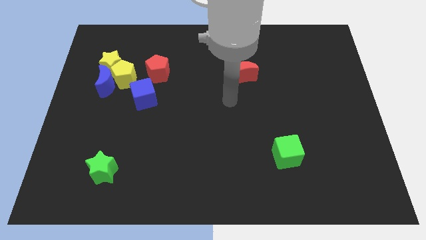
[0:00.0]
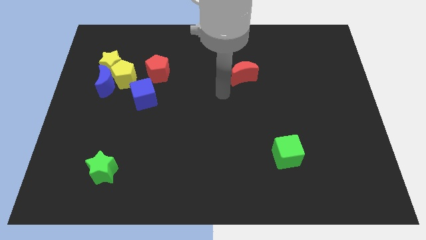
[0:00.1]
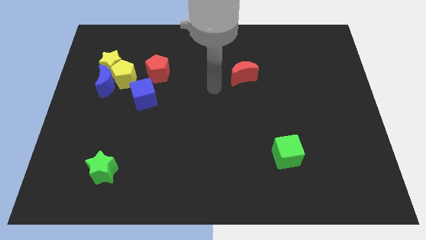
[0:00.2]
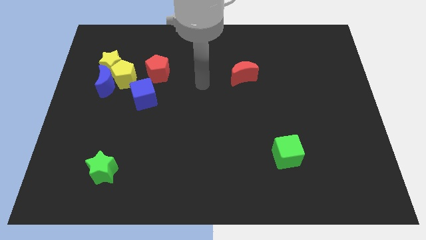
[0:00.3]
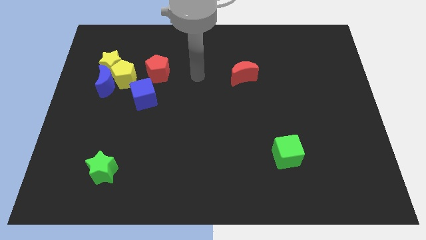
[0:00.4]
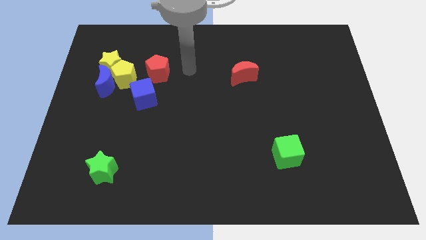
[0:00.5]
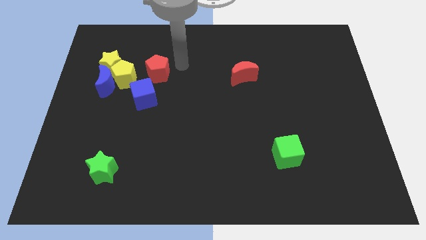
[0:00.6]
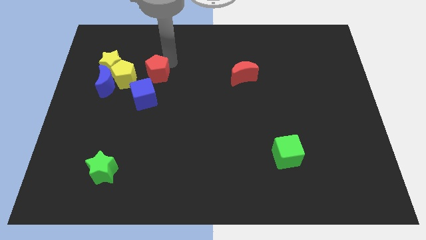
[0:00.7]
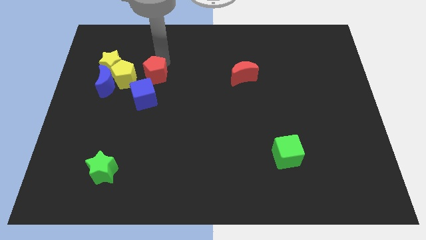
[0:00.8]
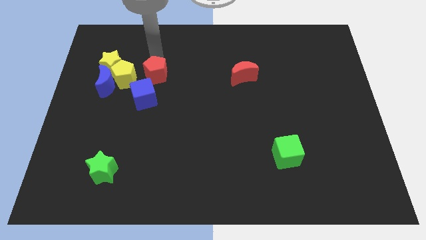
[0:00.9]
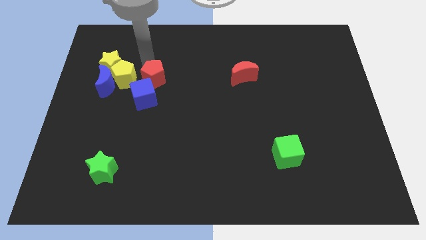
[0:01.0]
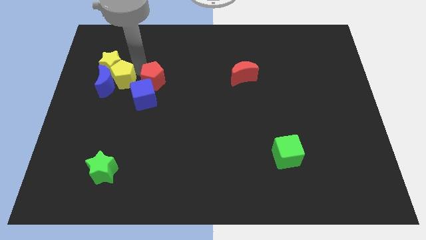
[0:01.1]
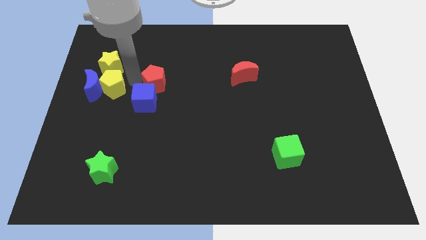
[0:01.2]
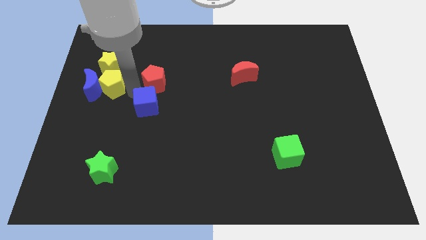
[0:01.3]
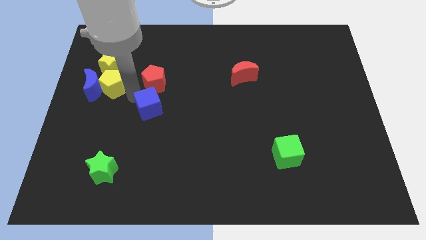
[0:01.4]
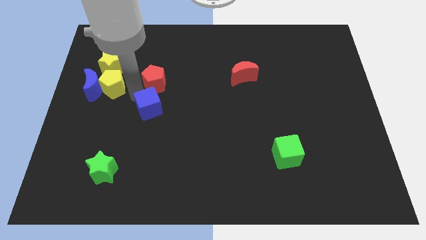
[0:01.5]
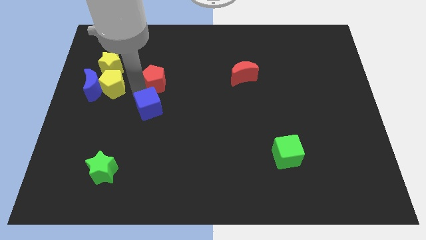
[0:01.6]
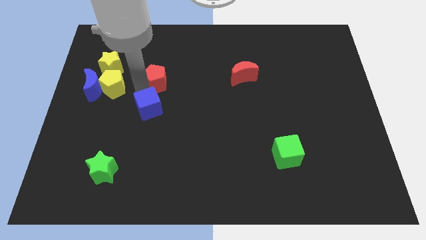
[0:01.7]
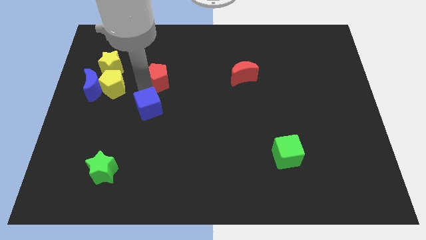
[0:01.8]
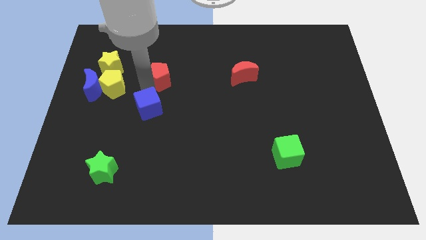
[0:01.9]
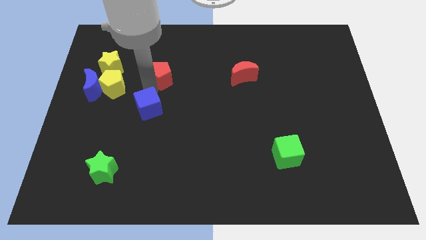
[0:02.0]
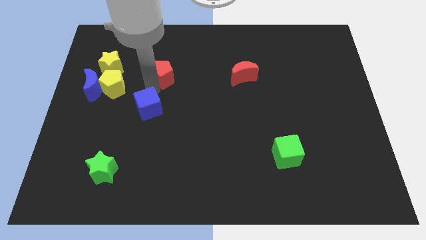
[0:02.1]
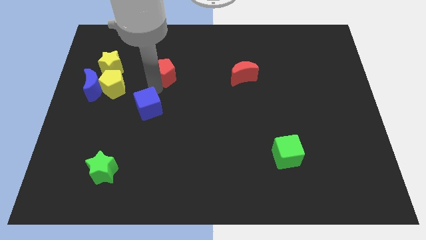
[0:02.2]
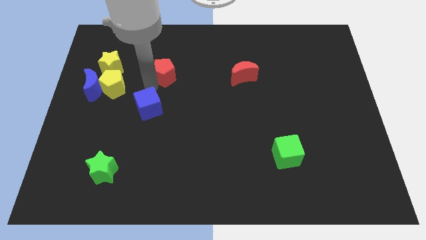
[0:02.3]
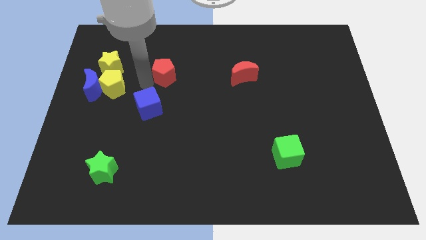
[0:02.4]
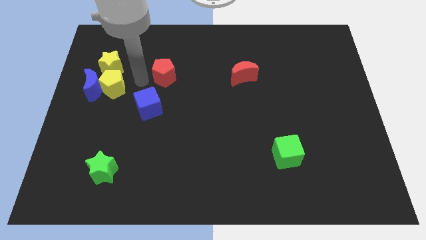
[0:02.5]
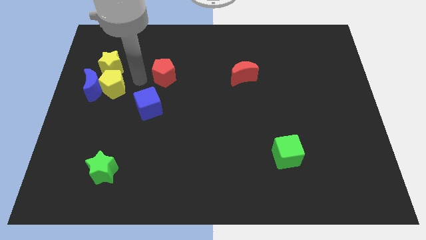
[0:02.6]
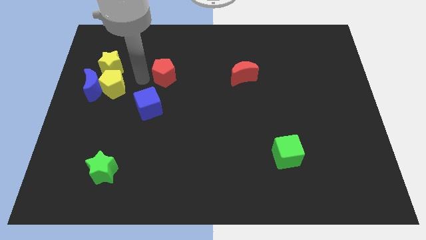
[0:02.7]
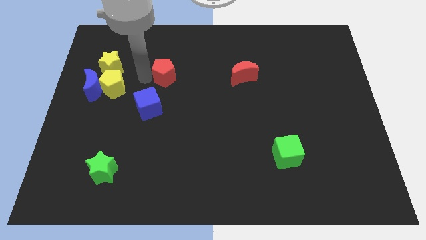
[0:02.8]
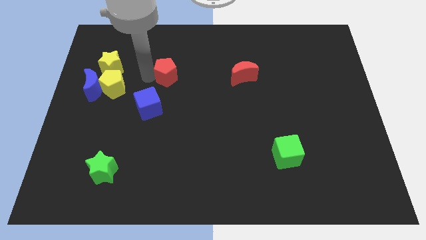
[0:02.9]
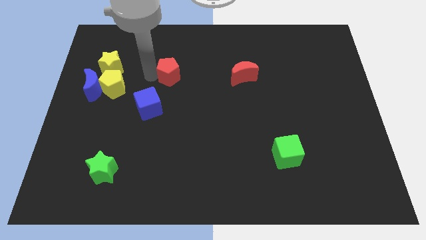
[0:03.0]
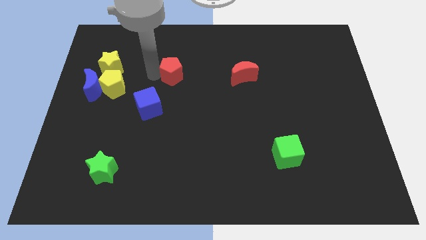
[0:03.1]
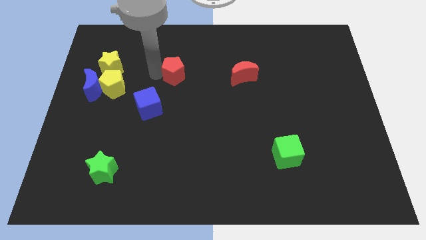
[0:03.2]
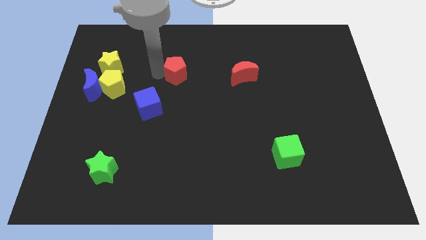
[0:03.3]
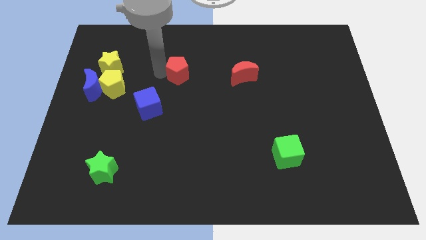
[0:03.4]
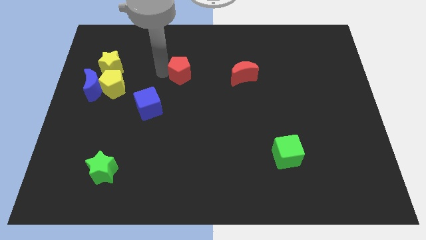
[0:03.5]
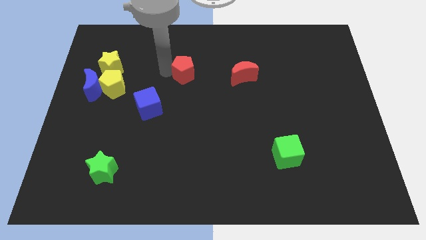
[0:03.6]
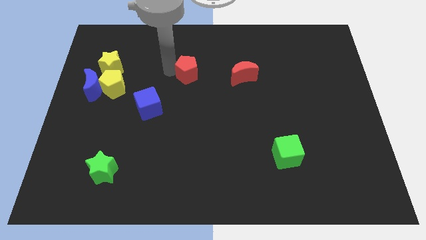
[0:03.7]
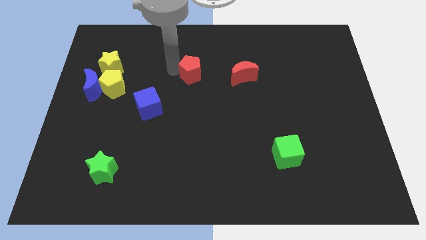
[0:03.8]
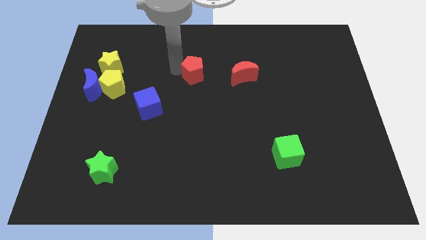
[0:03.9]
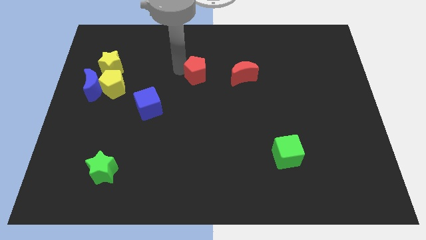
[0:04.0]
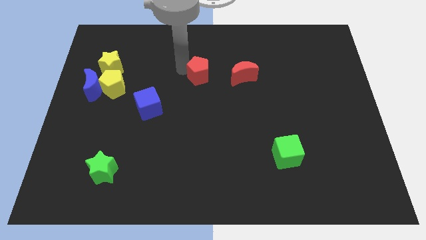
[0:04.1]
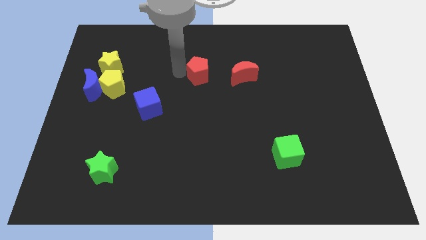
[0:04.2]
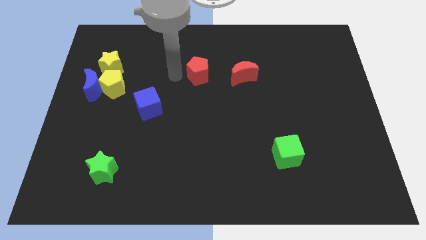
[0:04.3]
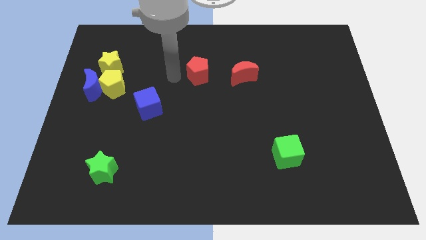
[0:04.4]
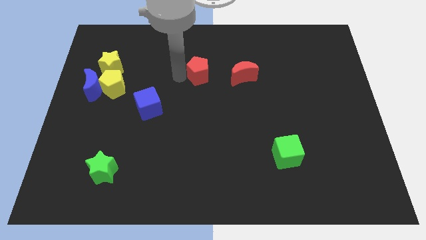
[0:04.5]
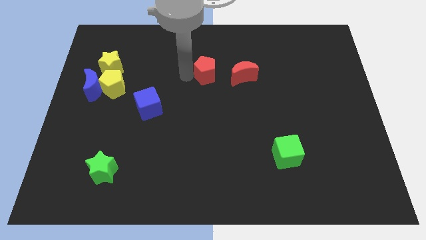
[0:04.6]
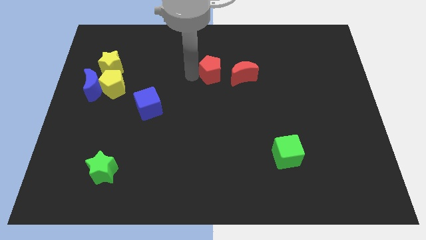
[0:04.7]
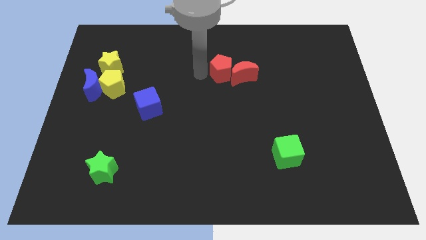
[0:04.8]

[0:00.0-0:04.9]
move the red pentagon next to the red moon

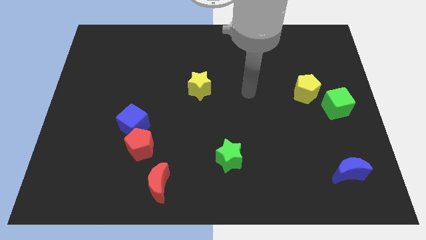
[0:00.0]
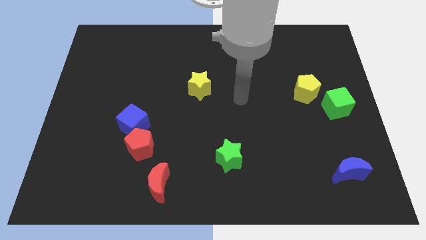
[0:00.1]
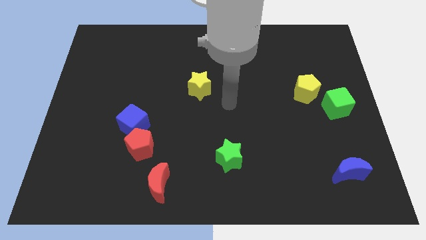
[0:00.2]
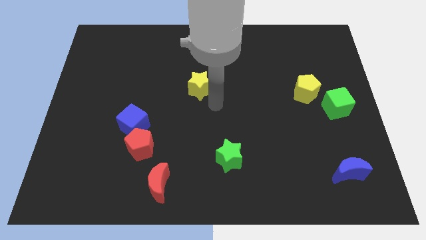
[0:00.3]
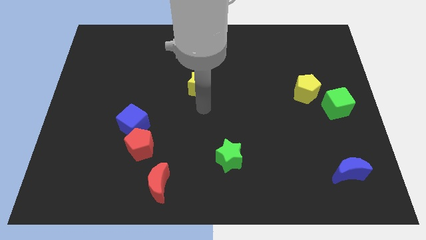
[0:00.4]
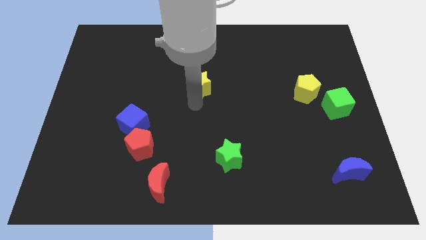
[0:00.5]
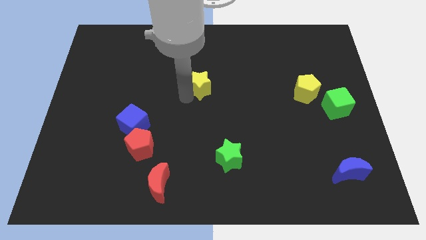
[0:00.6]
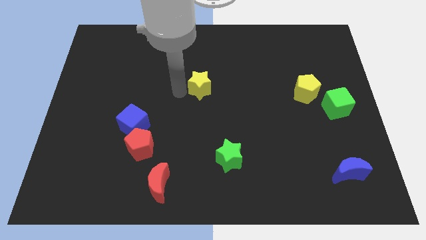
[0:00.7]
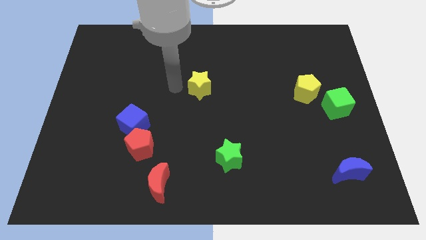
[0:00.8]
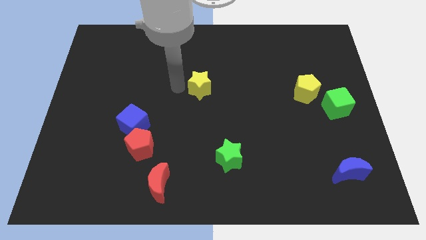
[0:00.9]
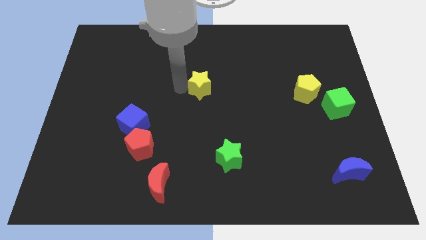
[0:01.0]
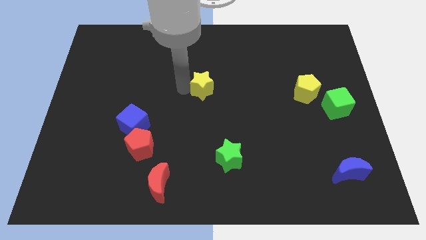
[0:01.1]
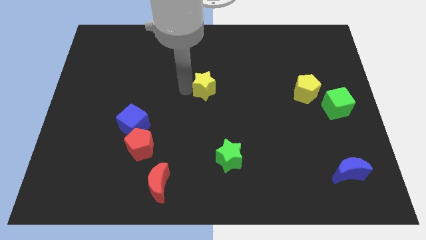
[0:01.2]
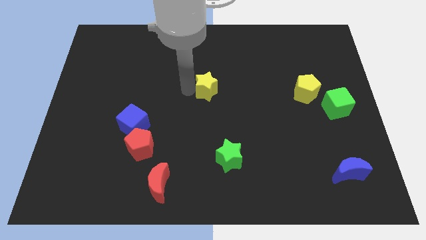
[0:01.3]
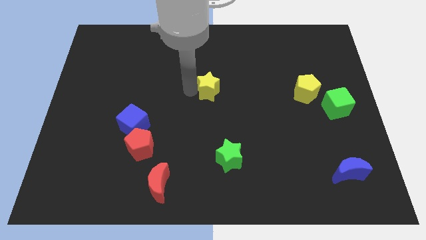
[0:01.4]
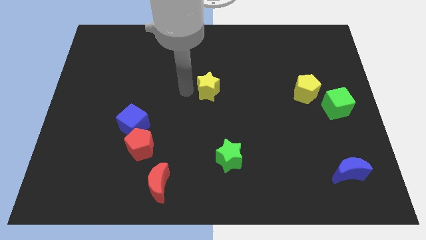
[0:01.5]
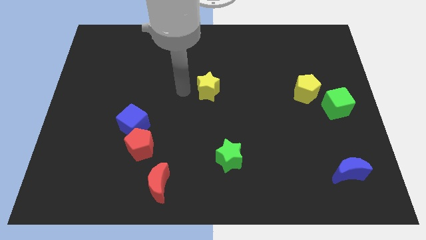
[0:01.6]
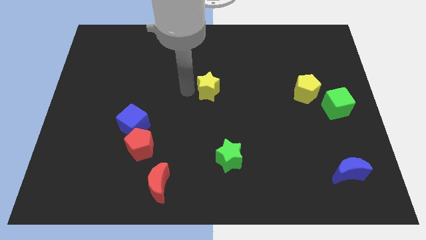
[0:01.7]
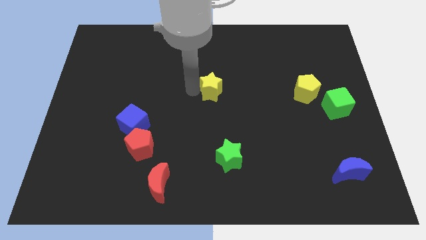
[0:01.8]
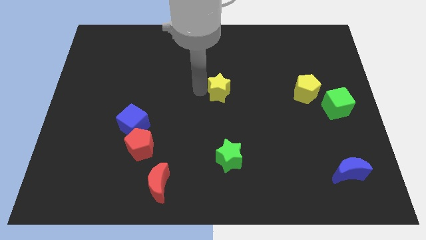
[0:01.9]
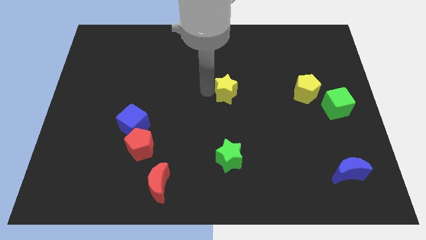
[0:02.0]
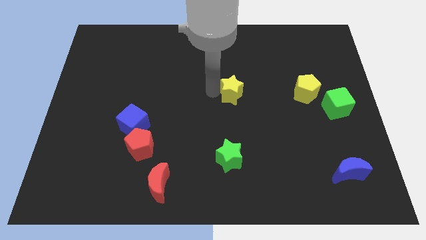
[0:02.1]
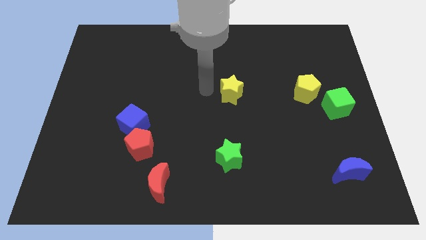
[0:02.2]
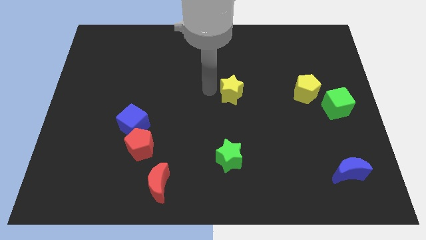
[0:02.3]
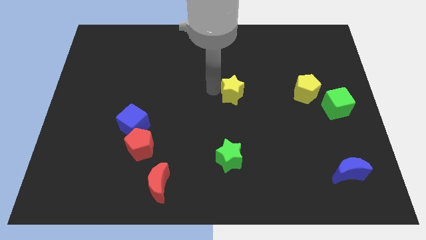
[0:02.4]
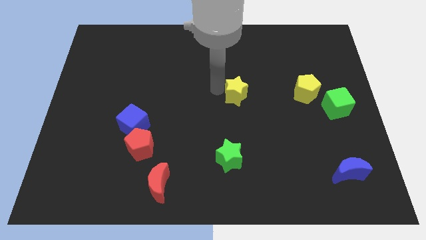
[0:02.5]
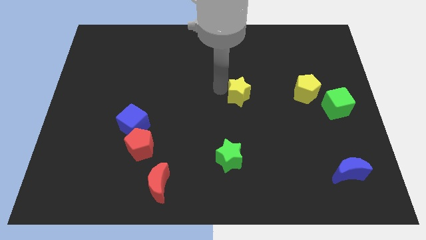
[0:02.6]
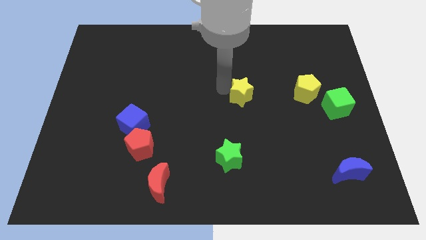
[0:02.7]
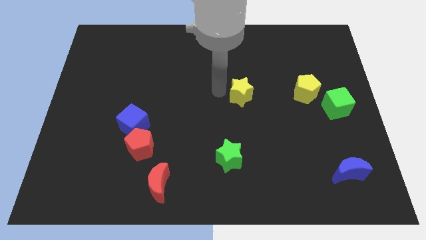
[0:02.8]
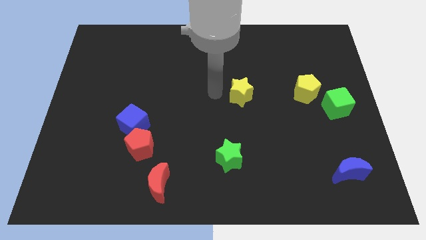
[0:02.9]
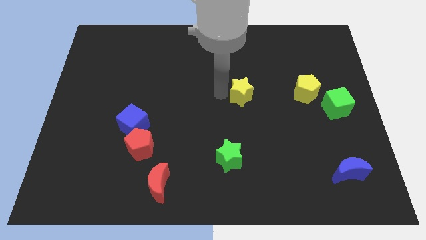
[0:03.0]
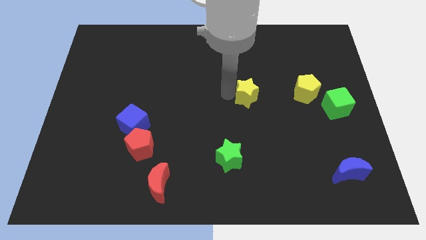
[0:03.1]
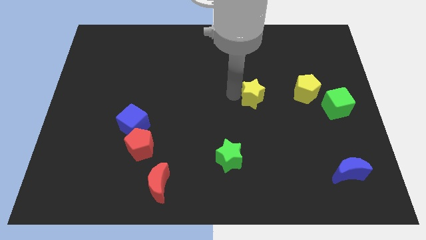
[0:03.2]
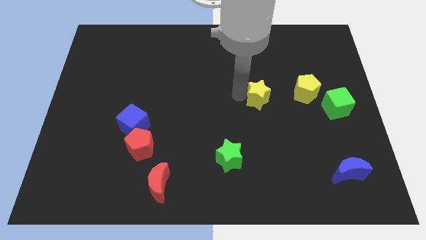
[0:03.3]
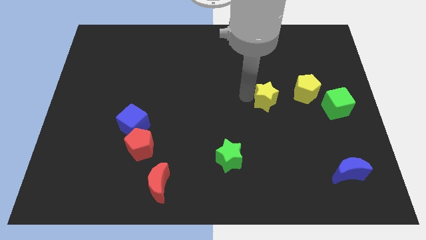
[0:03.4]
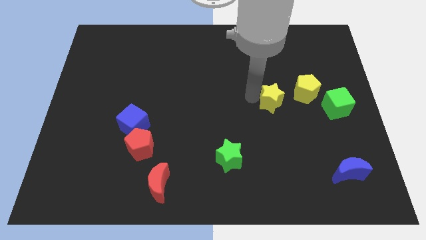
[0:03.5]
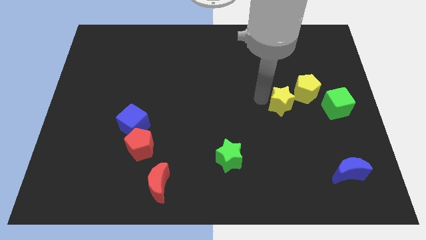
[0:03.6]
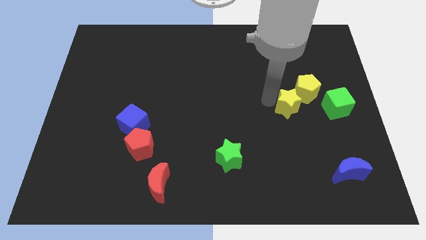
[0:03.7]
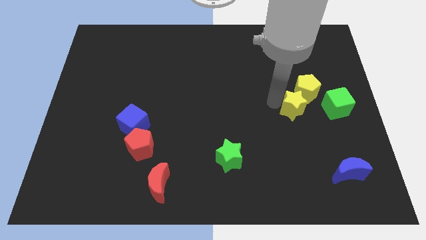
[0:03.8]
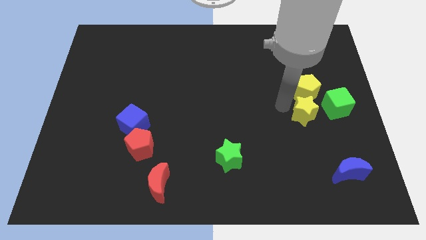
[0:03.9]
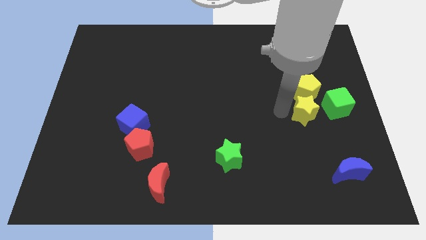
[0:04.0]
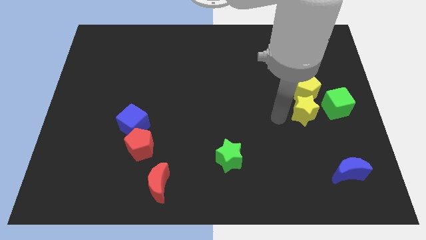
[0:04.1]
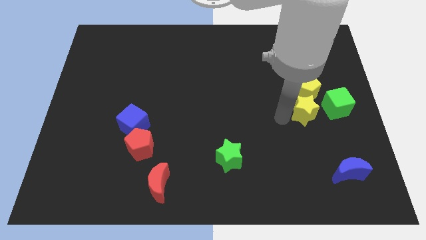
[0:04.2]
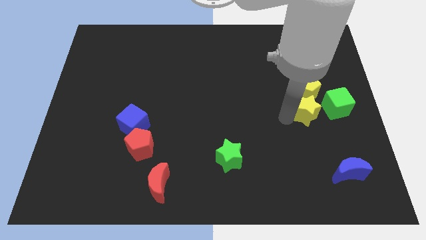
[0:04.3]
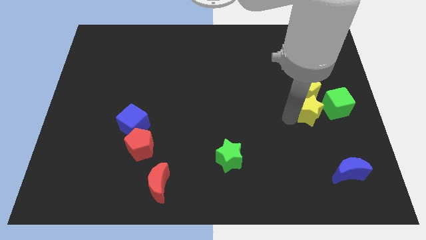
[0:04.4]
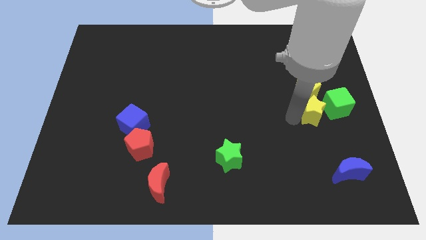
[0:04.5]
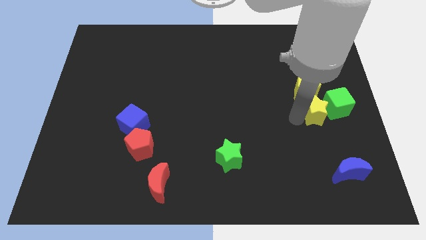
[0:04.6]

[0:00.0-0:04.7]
put the yellow star next to the green cube
